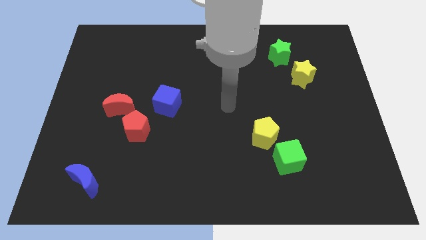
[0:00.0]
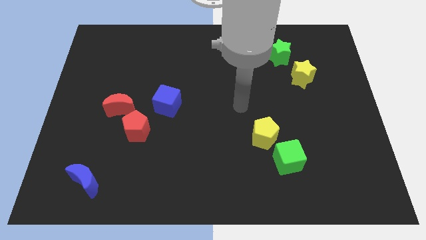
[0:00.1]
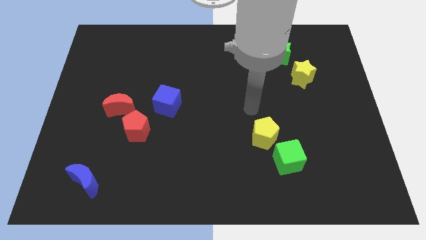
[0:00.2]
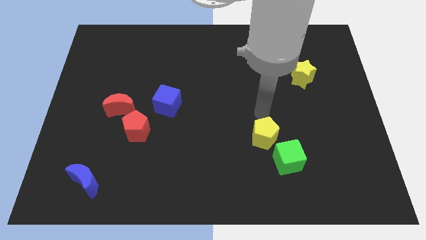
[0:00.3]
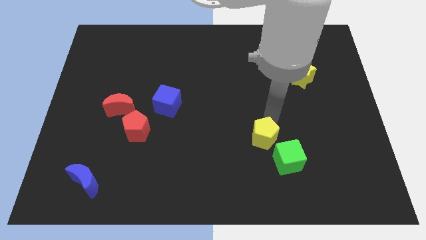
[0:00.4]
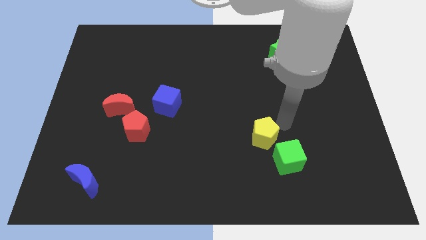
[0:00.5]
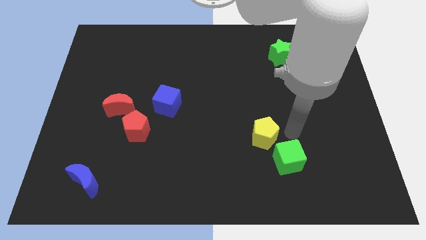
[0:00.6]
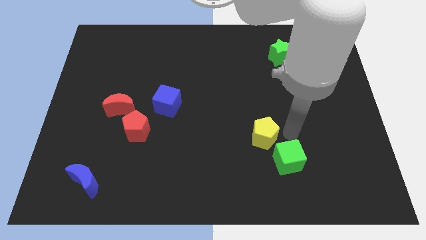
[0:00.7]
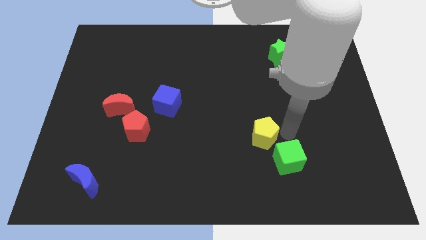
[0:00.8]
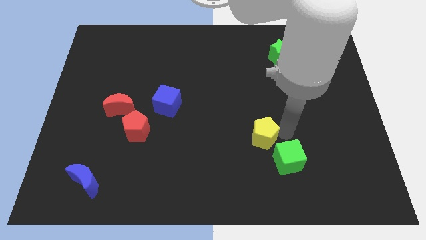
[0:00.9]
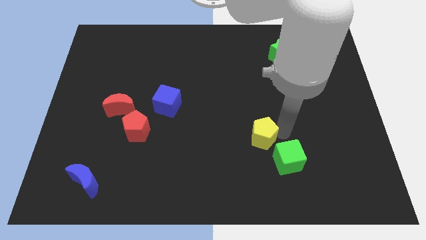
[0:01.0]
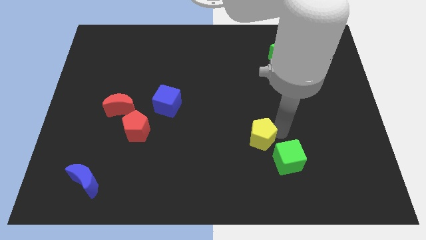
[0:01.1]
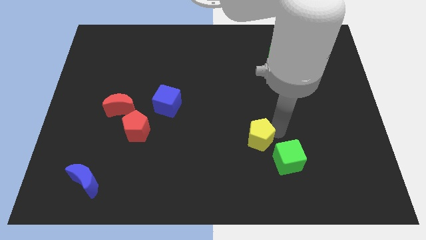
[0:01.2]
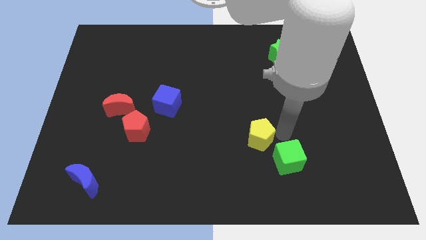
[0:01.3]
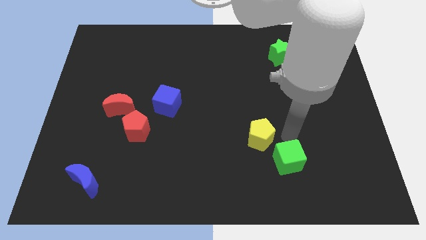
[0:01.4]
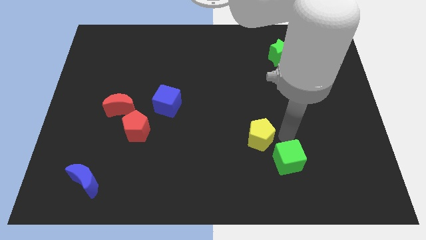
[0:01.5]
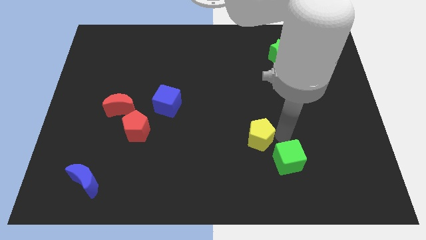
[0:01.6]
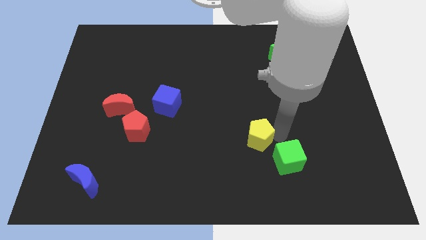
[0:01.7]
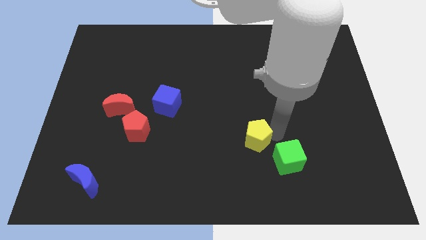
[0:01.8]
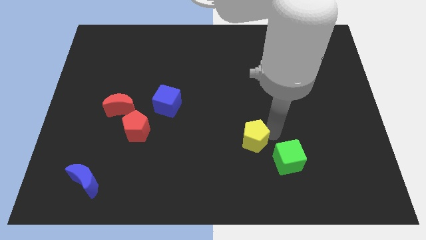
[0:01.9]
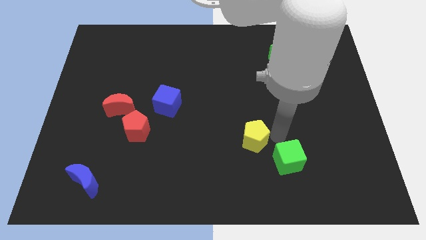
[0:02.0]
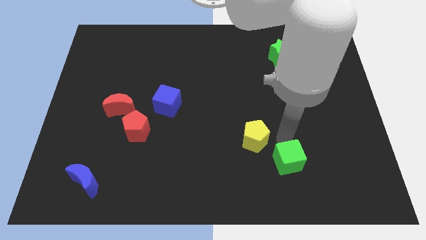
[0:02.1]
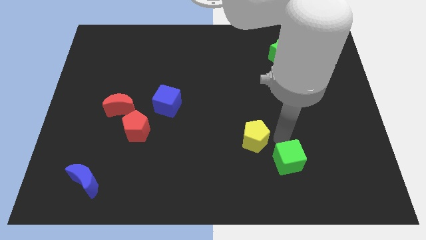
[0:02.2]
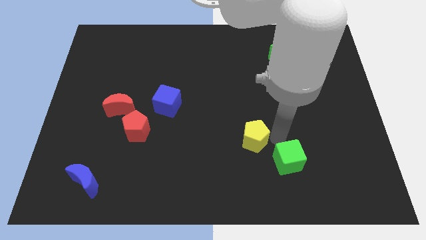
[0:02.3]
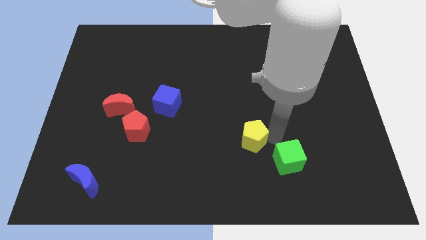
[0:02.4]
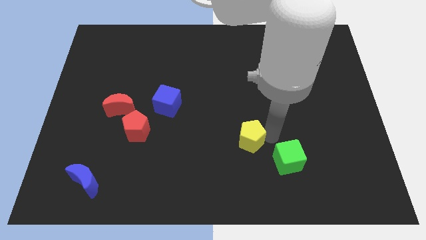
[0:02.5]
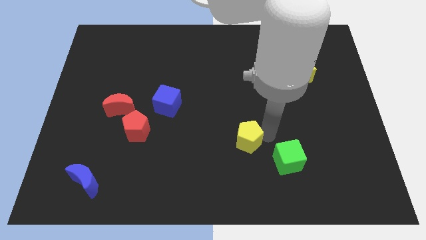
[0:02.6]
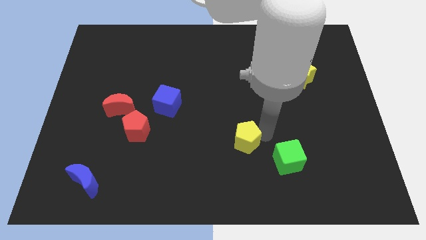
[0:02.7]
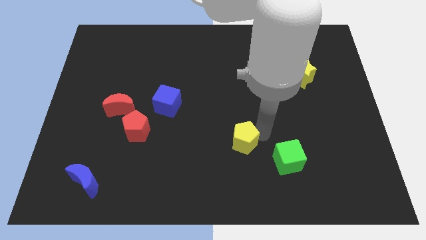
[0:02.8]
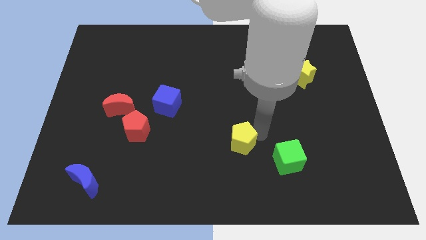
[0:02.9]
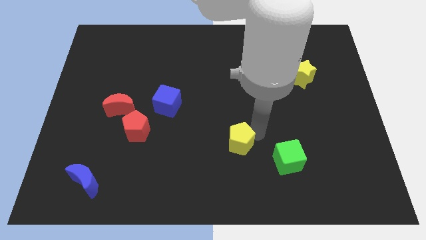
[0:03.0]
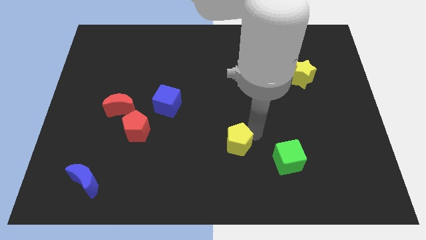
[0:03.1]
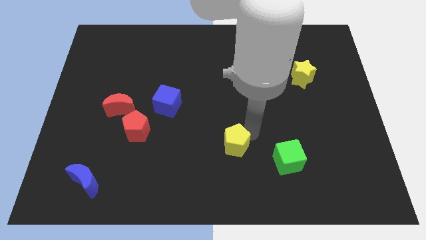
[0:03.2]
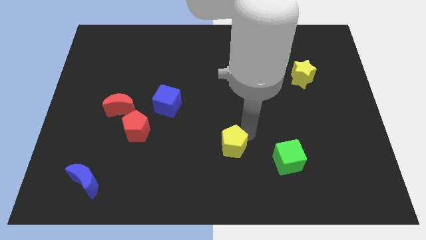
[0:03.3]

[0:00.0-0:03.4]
push the yellow pentagon left a bit

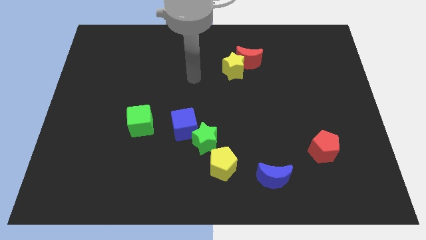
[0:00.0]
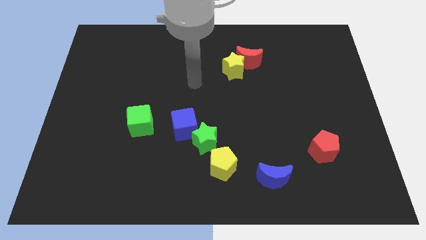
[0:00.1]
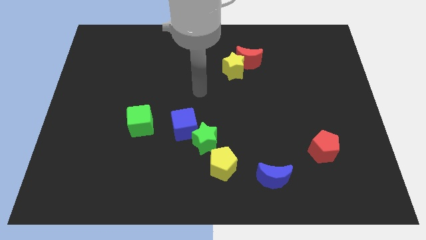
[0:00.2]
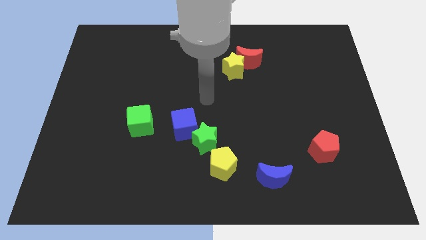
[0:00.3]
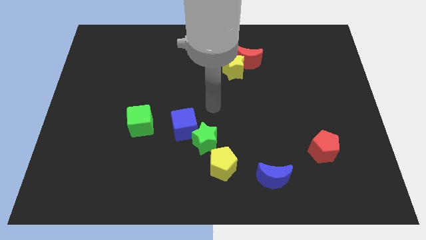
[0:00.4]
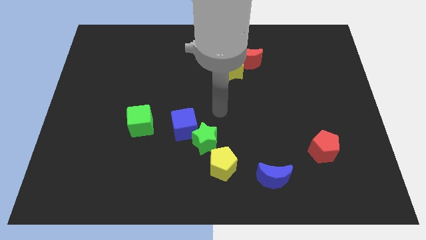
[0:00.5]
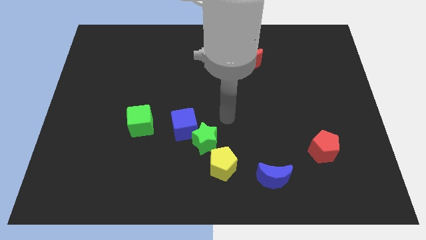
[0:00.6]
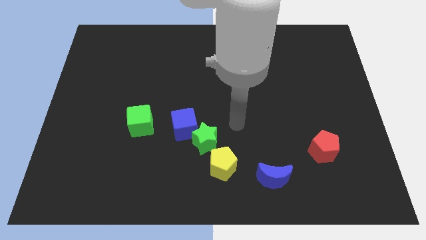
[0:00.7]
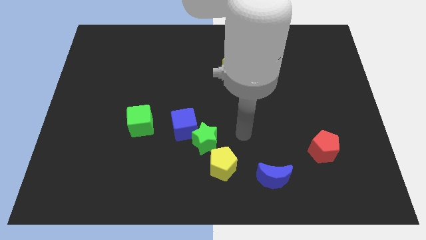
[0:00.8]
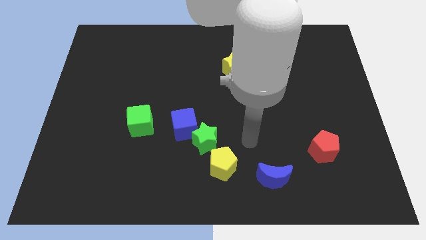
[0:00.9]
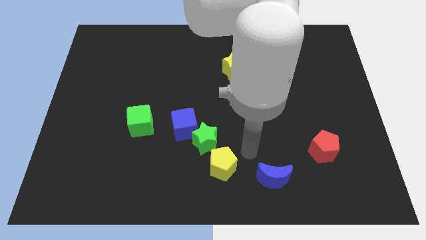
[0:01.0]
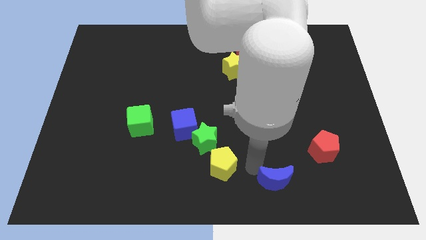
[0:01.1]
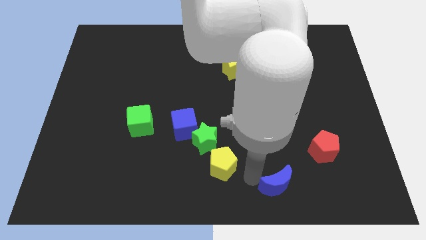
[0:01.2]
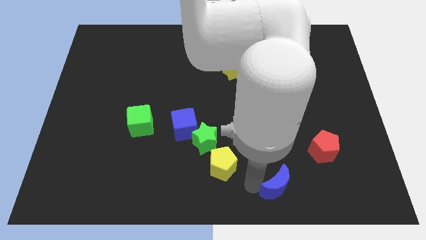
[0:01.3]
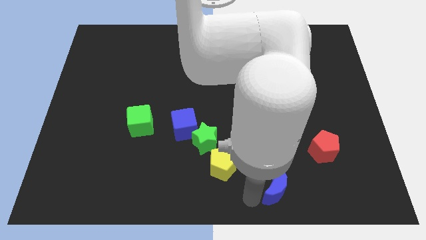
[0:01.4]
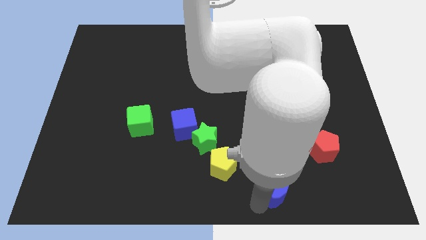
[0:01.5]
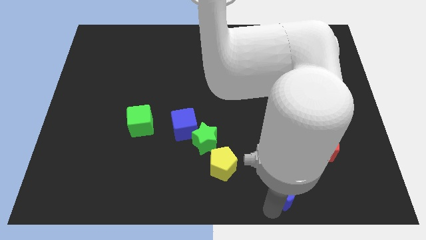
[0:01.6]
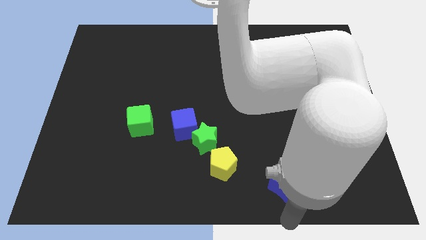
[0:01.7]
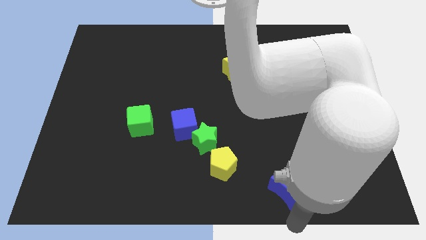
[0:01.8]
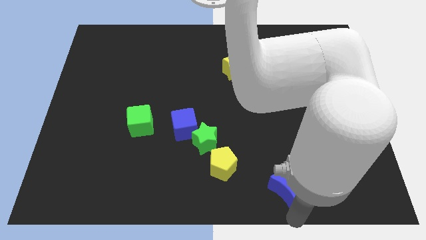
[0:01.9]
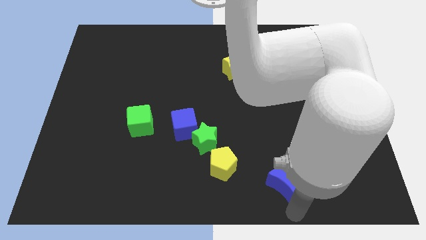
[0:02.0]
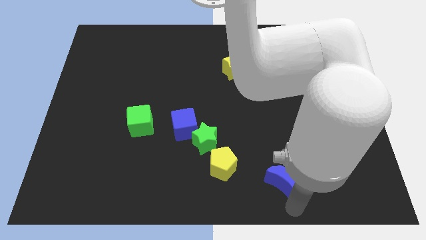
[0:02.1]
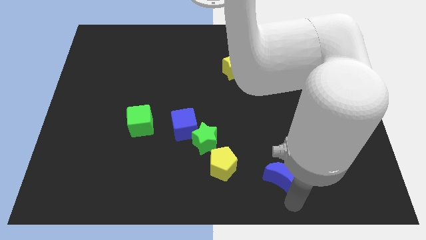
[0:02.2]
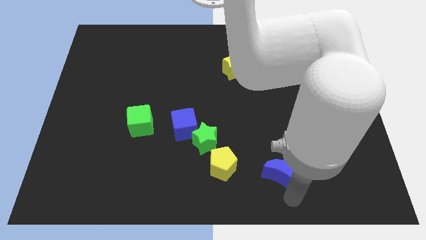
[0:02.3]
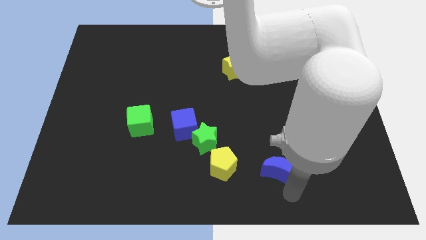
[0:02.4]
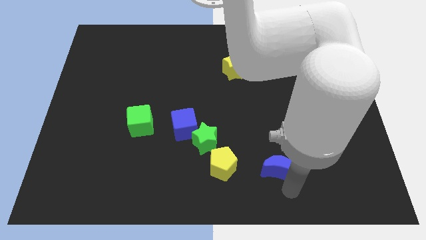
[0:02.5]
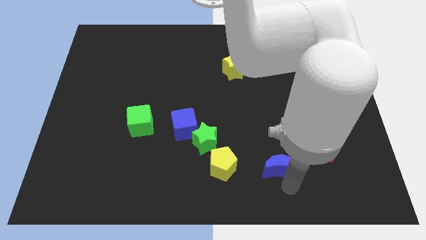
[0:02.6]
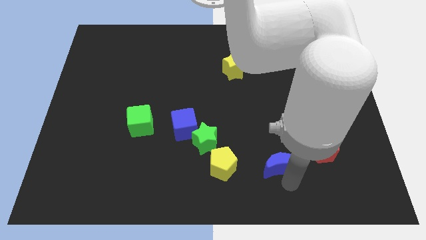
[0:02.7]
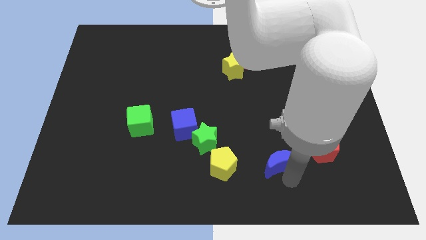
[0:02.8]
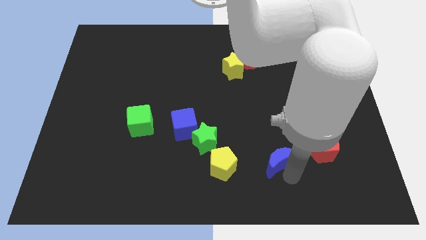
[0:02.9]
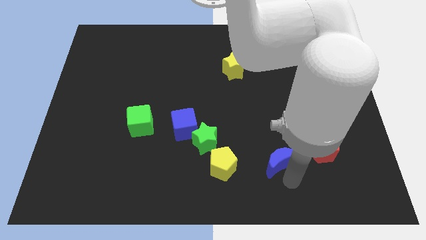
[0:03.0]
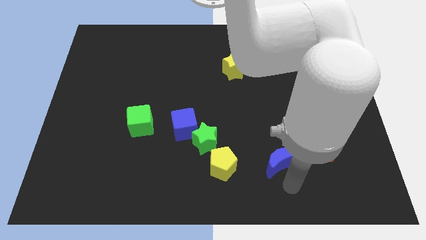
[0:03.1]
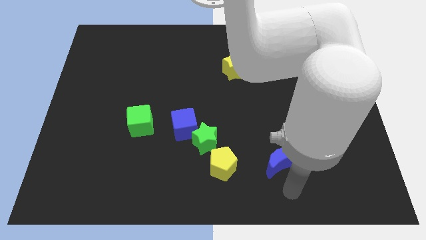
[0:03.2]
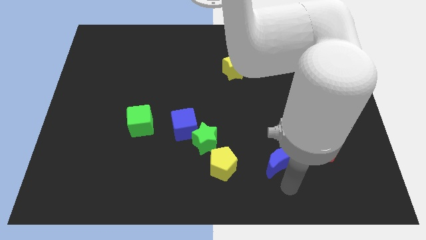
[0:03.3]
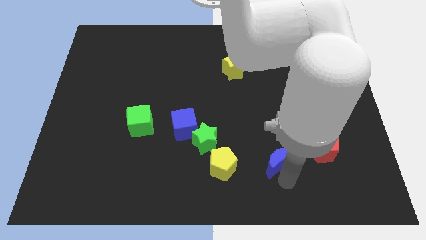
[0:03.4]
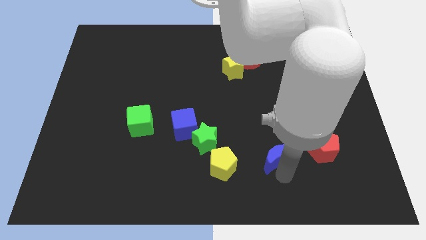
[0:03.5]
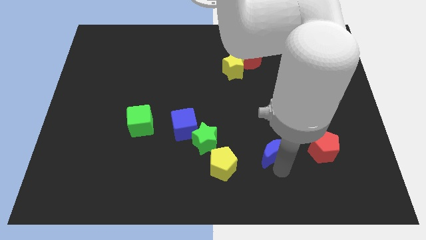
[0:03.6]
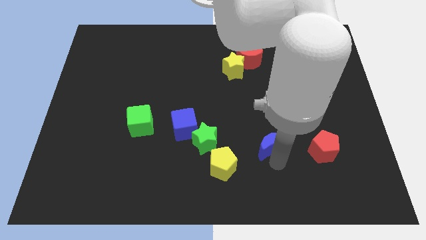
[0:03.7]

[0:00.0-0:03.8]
push the blue moon upwards somewhat

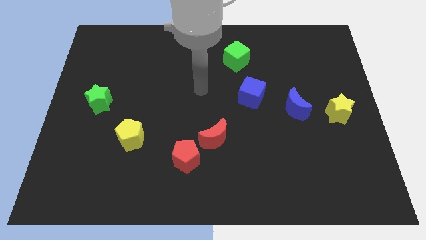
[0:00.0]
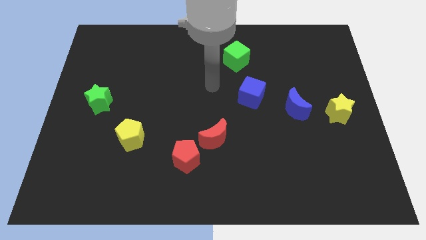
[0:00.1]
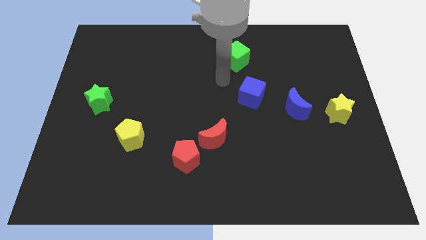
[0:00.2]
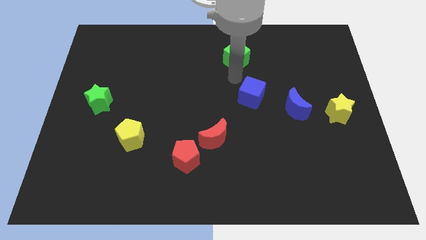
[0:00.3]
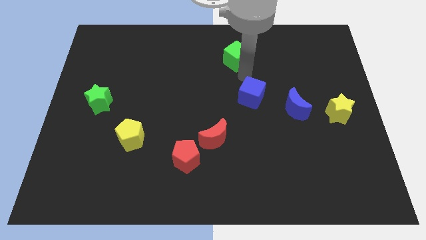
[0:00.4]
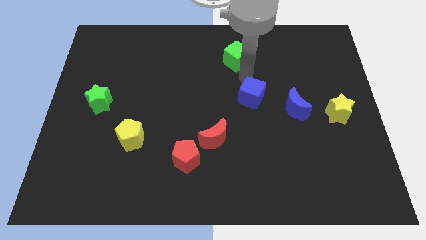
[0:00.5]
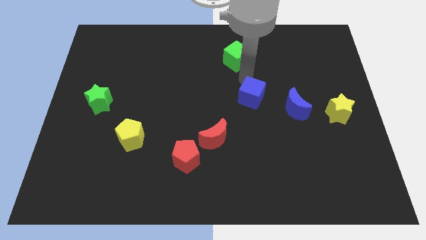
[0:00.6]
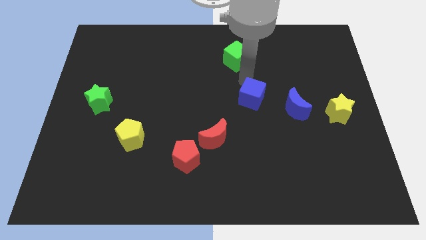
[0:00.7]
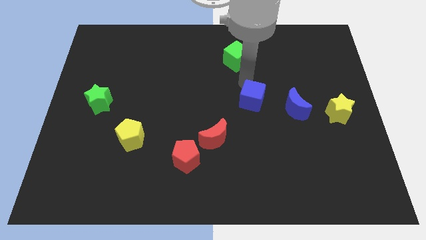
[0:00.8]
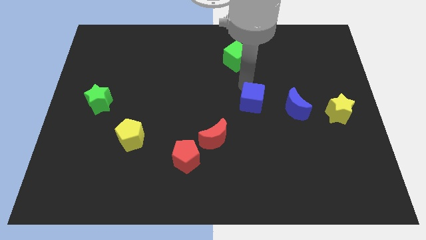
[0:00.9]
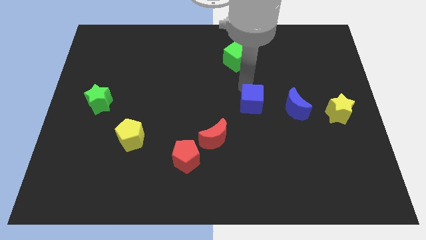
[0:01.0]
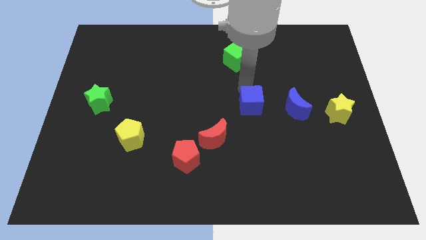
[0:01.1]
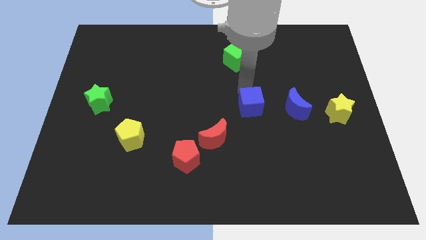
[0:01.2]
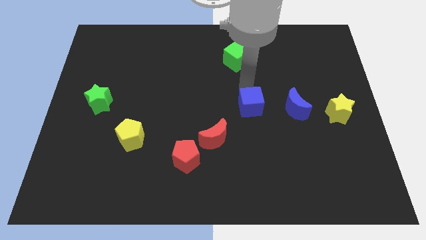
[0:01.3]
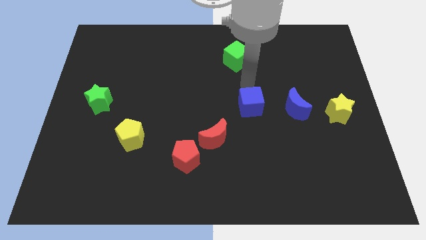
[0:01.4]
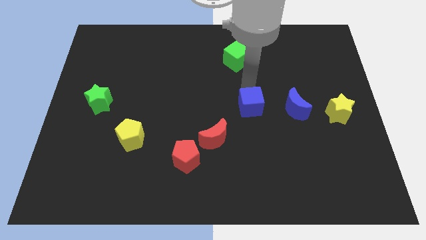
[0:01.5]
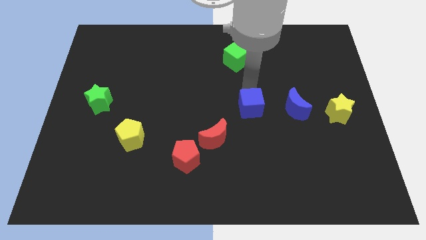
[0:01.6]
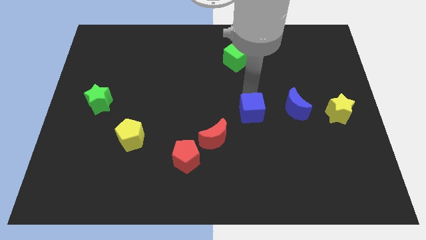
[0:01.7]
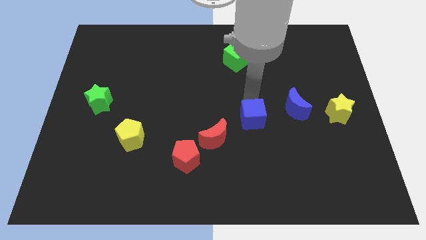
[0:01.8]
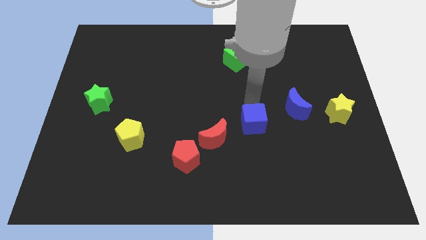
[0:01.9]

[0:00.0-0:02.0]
slide the blue cube down a bit
